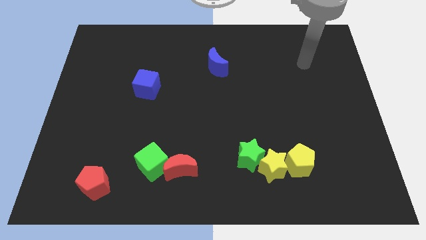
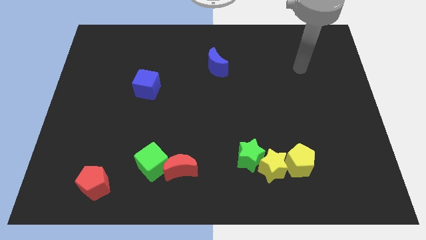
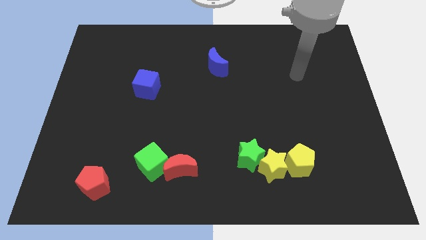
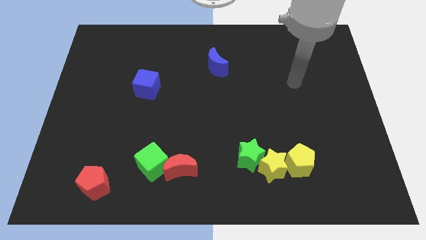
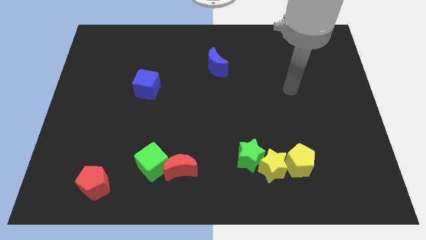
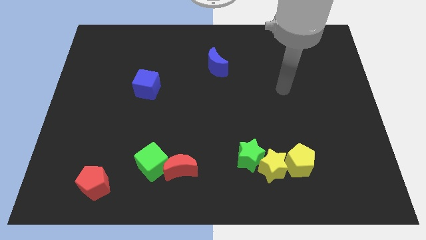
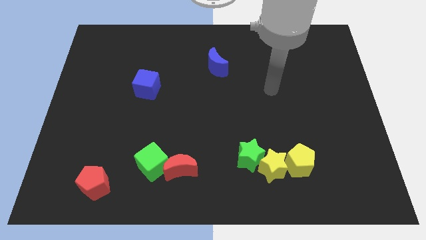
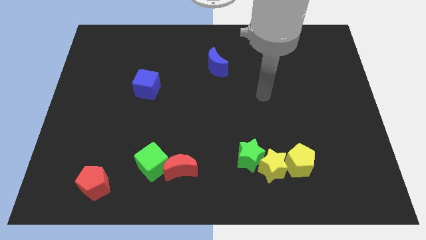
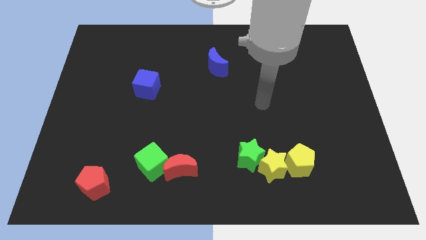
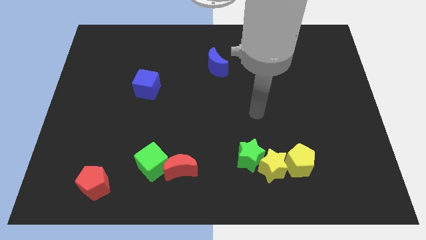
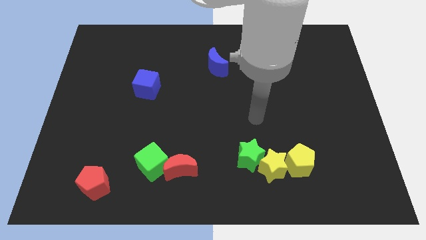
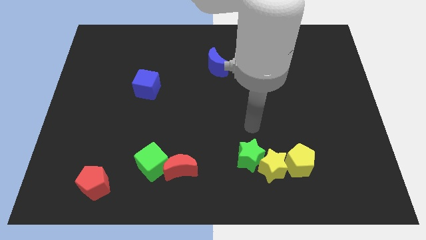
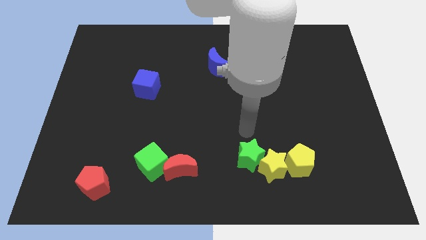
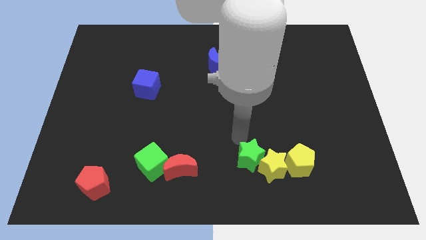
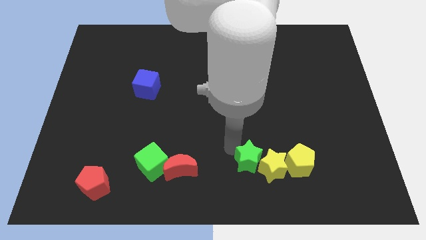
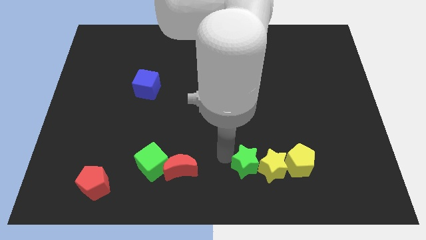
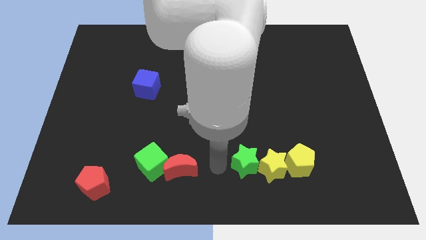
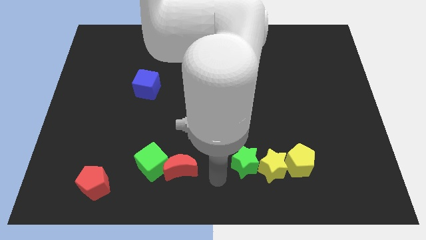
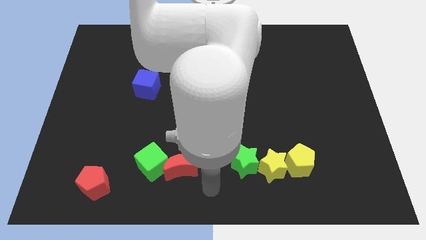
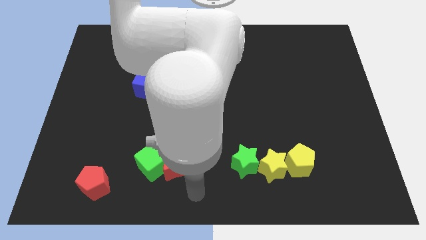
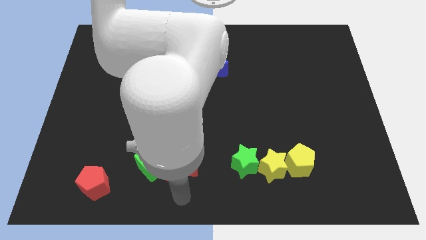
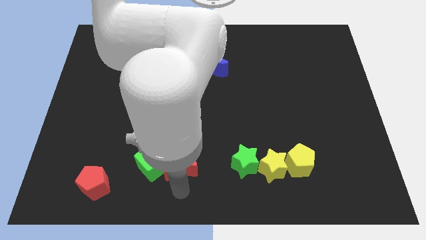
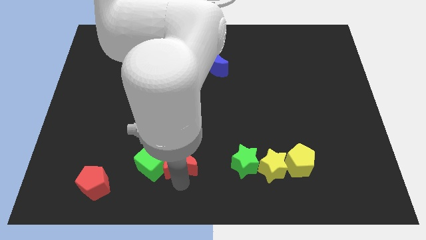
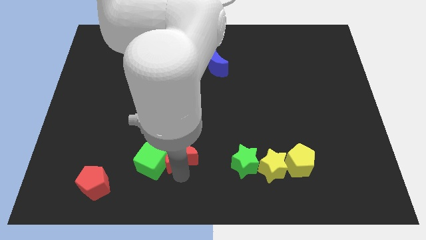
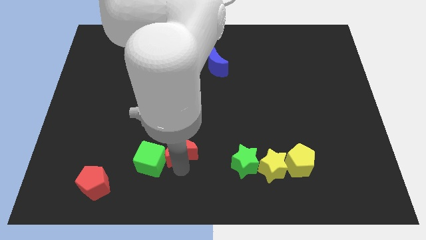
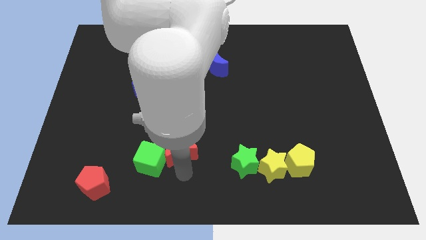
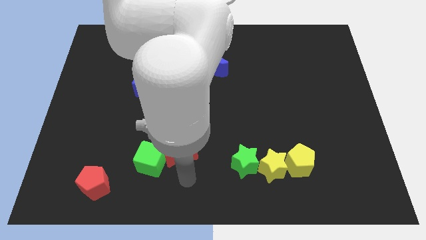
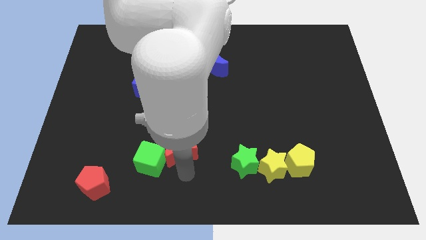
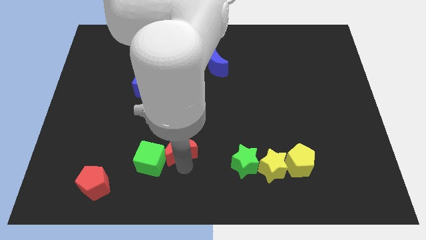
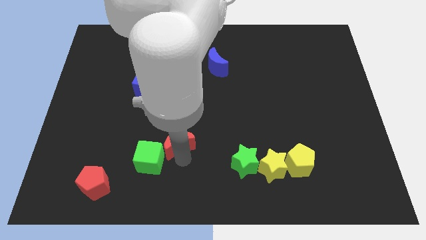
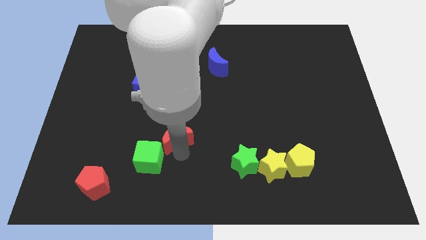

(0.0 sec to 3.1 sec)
slide the red moon upwards a little bit

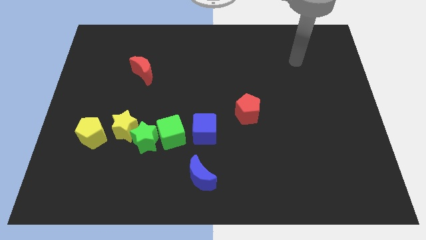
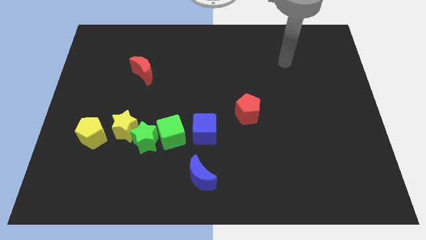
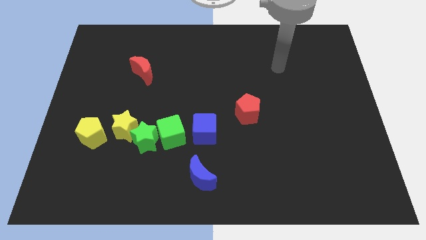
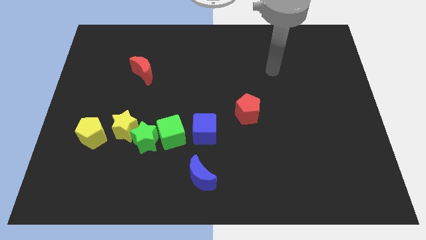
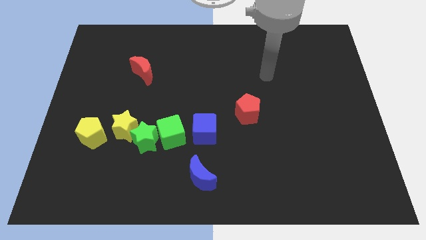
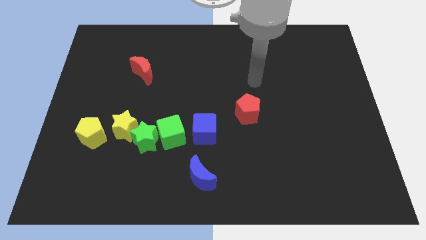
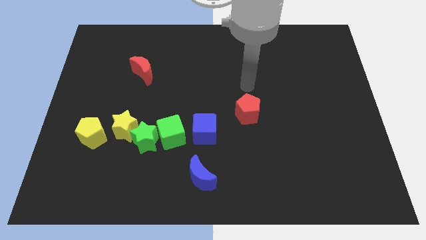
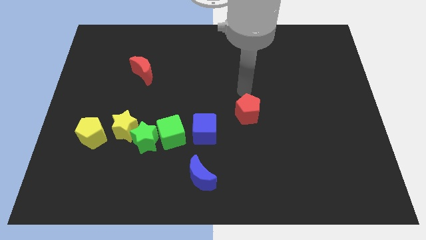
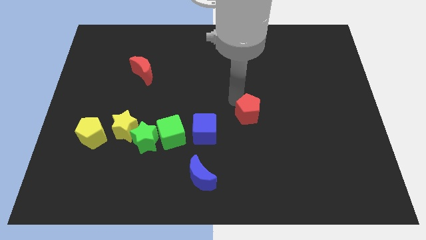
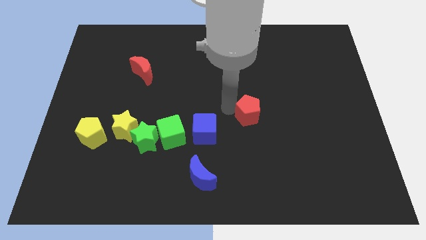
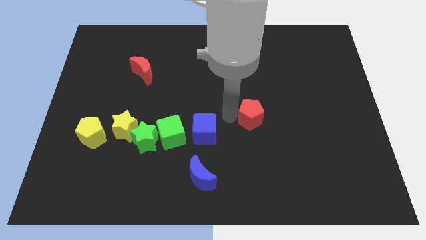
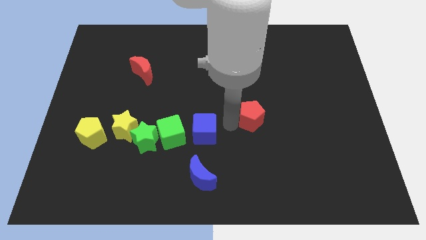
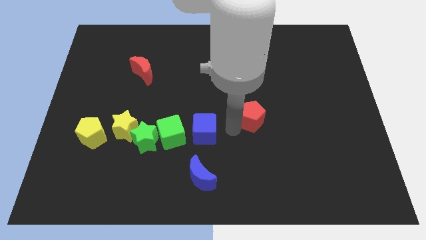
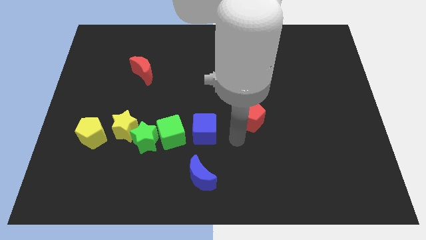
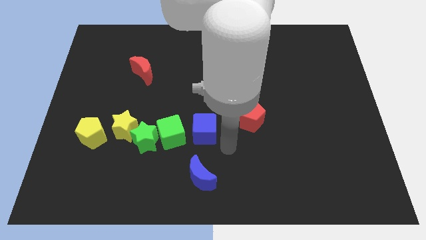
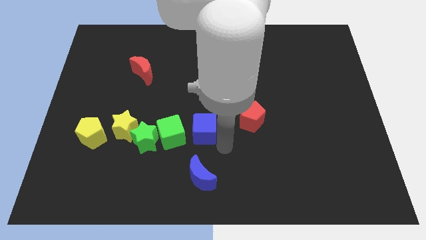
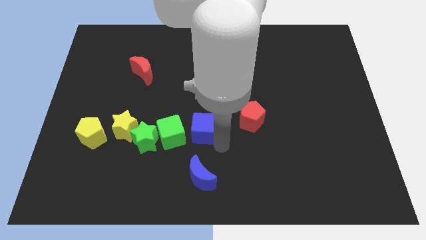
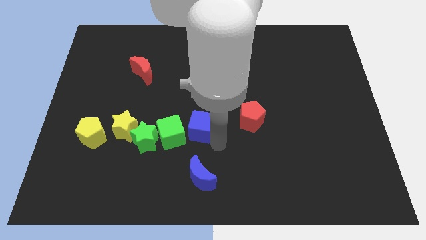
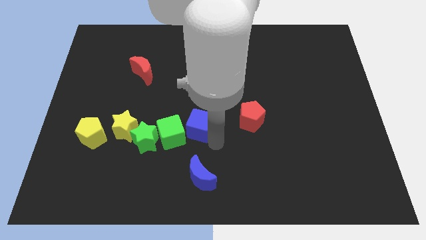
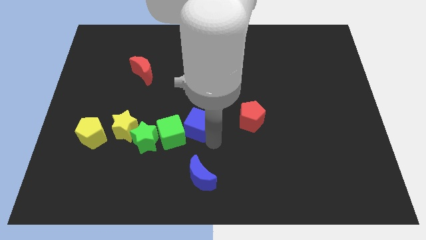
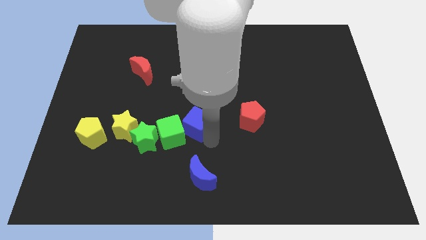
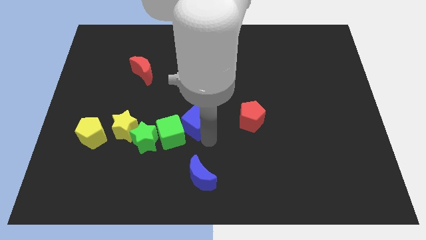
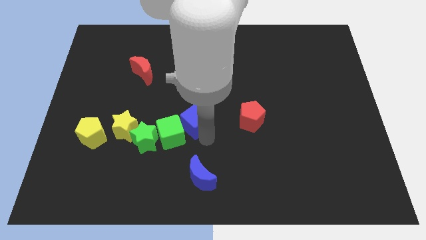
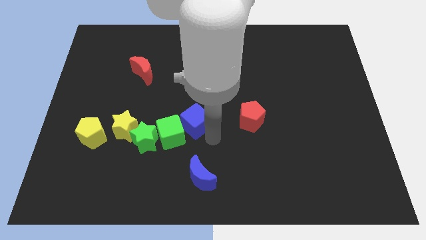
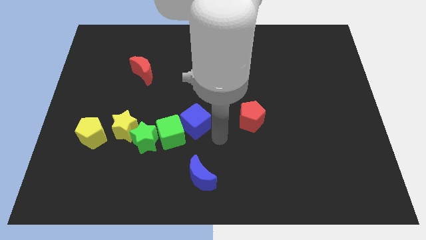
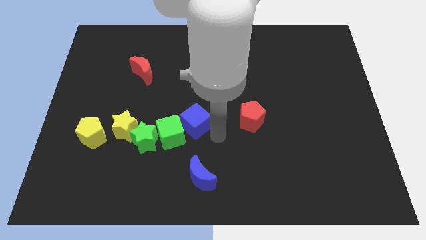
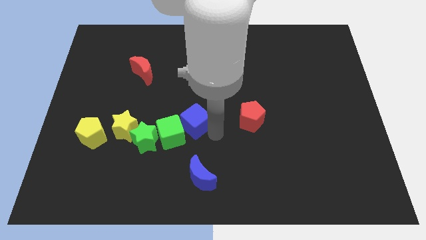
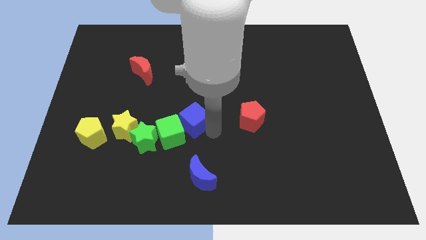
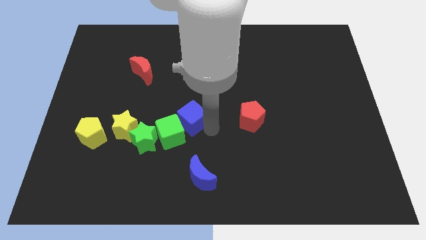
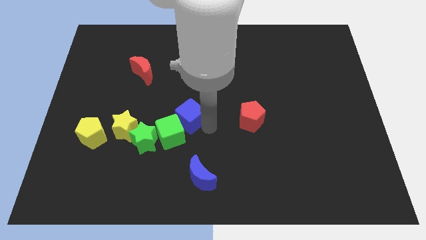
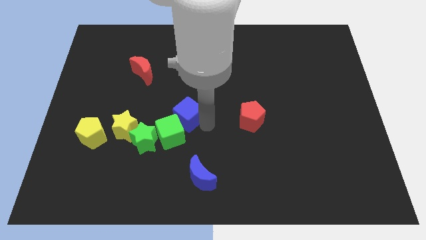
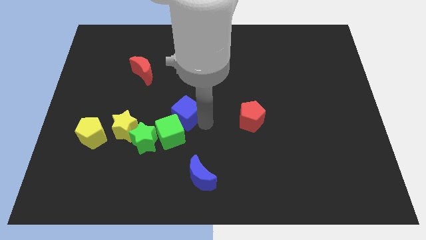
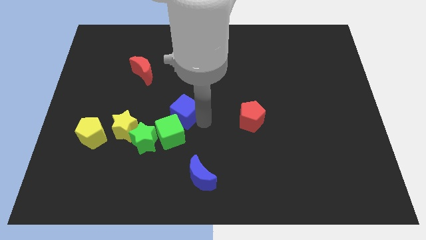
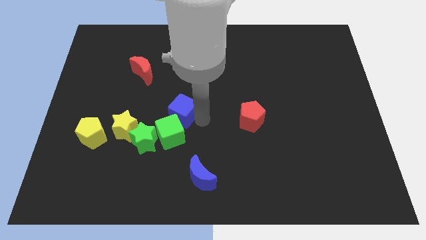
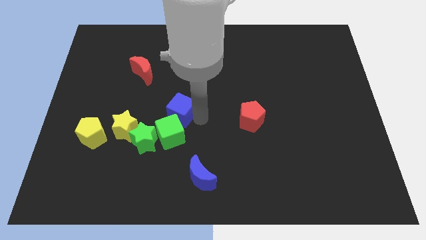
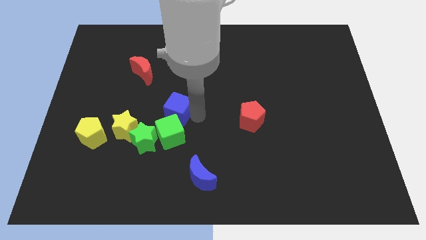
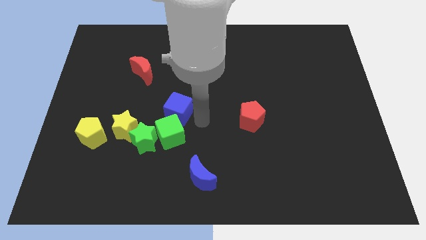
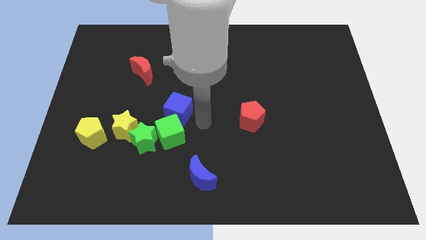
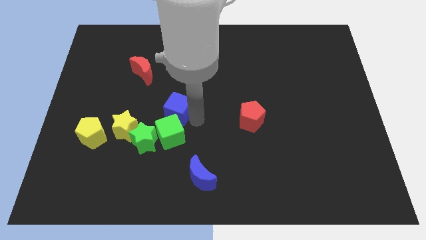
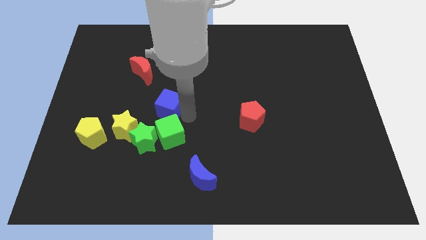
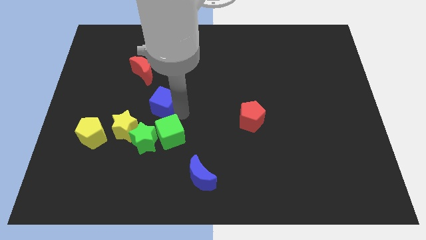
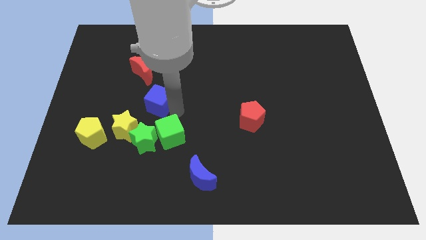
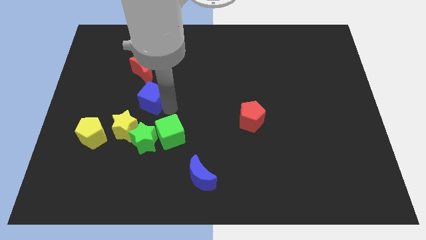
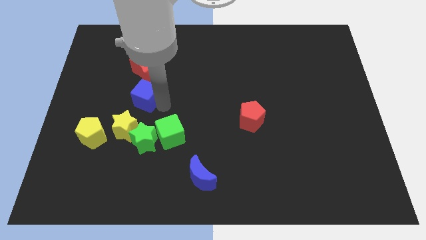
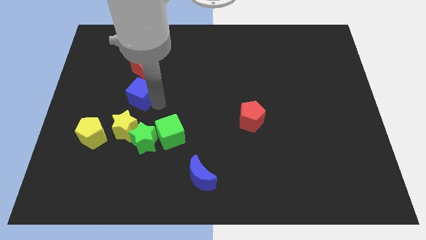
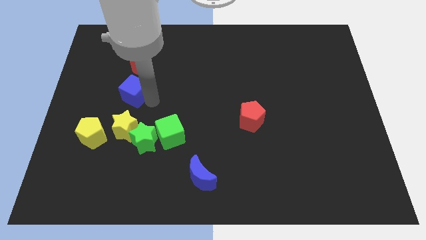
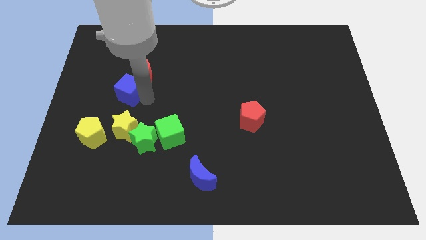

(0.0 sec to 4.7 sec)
move the blue cube up and then left
